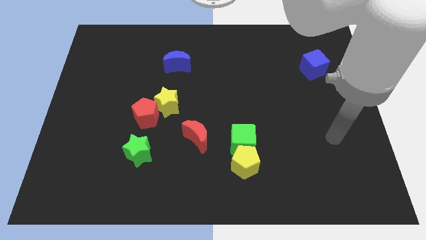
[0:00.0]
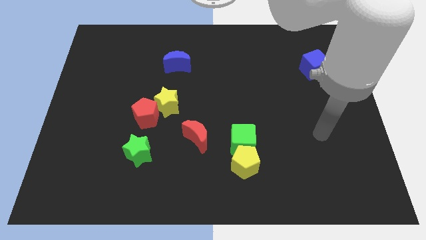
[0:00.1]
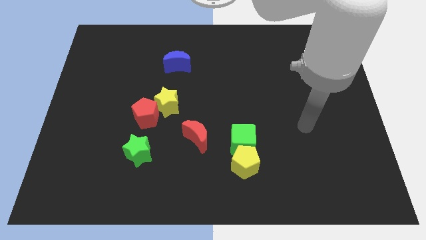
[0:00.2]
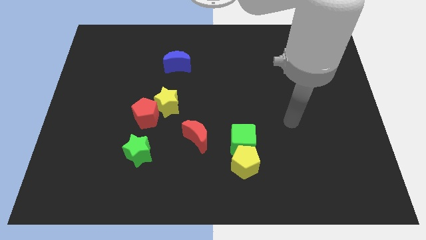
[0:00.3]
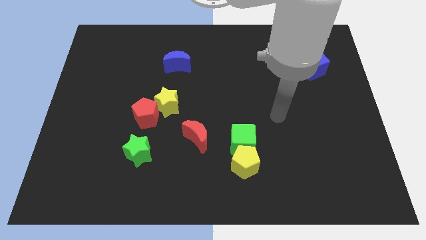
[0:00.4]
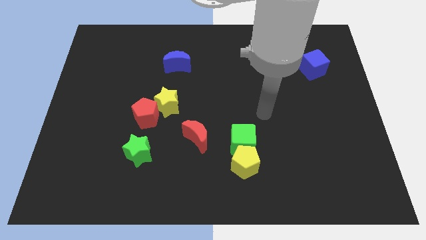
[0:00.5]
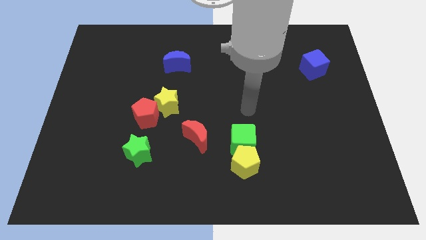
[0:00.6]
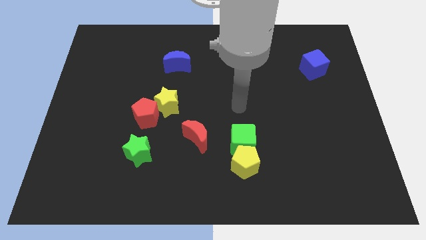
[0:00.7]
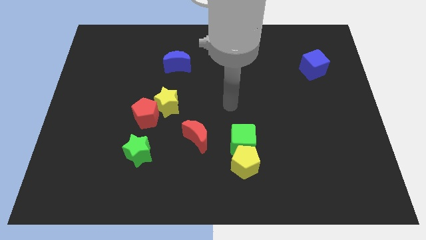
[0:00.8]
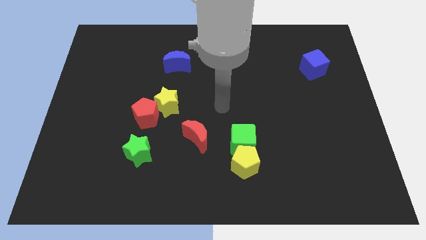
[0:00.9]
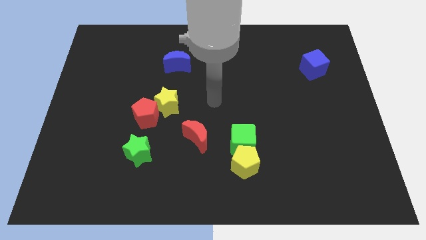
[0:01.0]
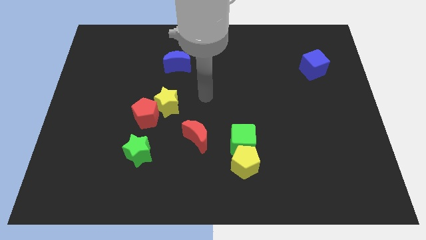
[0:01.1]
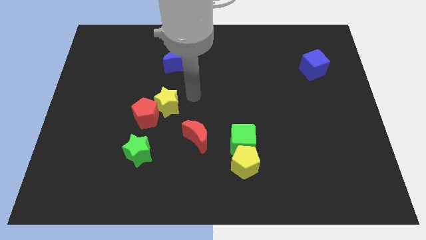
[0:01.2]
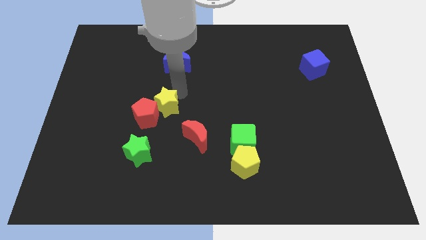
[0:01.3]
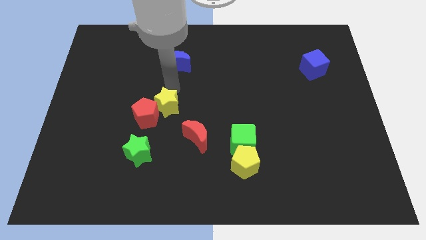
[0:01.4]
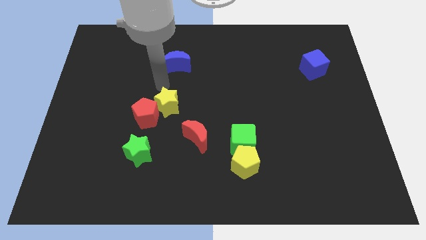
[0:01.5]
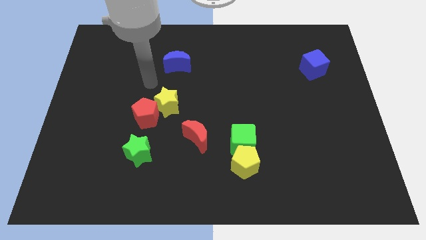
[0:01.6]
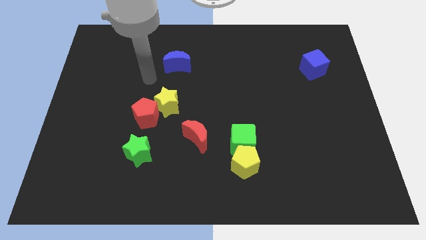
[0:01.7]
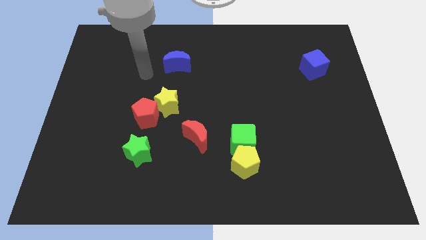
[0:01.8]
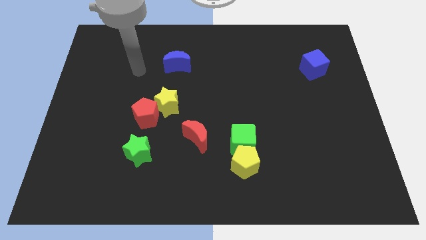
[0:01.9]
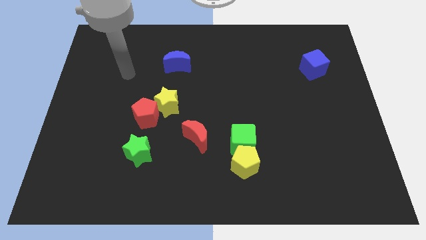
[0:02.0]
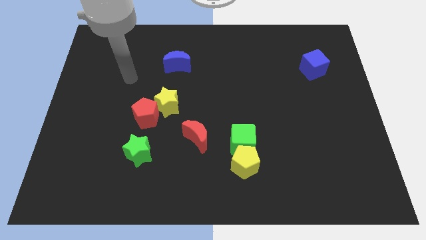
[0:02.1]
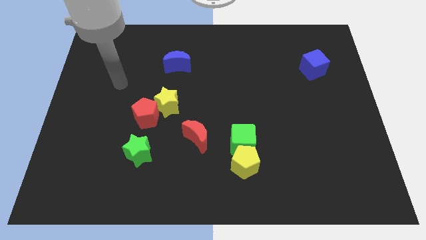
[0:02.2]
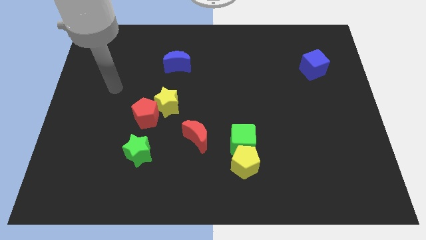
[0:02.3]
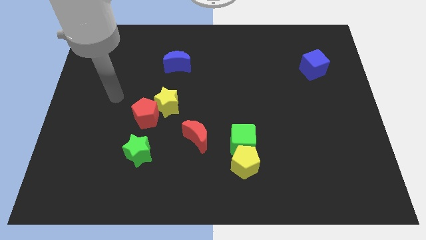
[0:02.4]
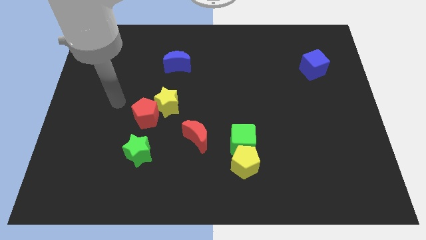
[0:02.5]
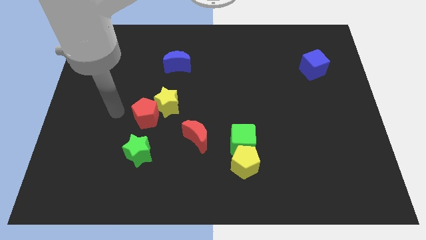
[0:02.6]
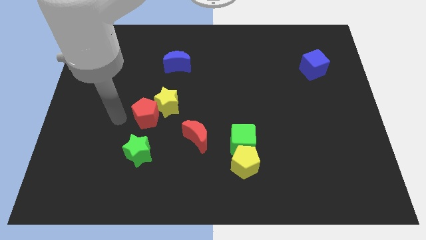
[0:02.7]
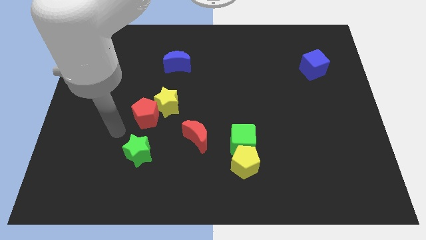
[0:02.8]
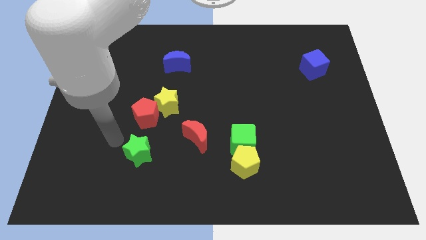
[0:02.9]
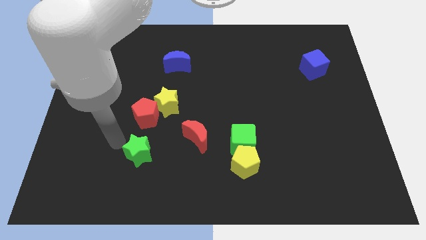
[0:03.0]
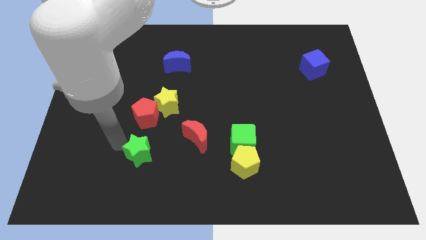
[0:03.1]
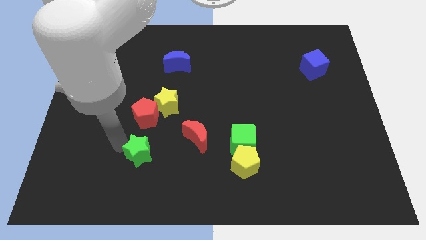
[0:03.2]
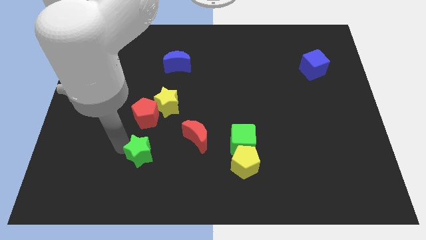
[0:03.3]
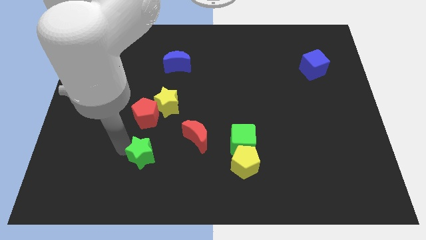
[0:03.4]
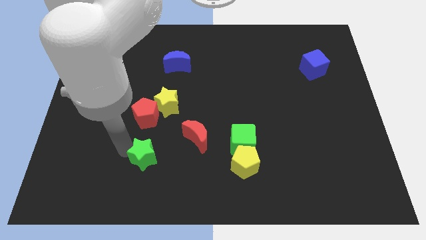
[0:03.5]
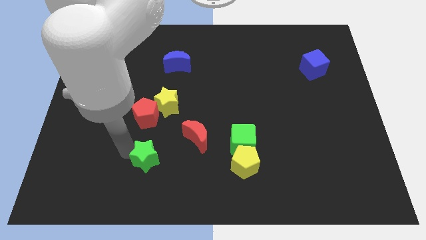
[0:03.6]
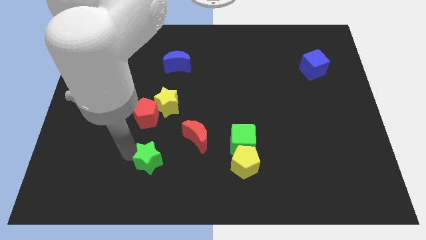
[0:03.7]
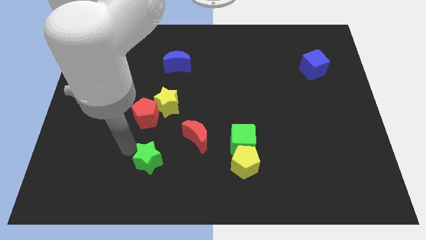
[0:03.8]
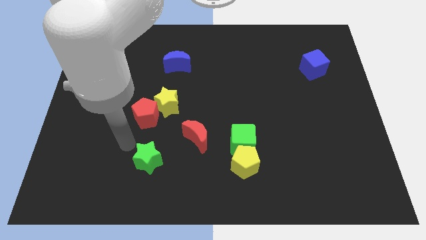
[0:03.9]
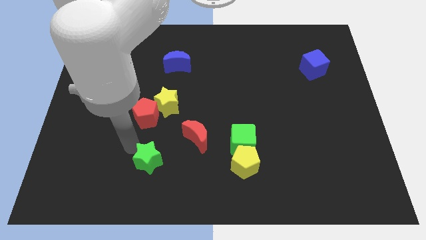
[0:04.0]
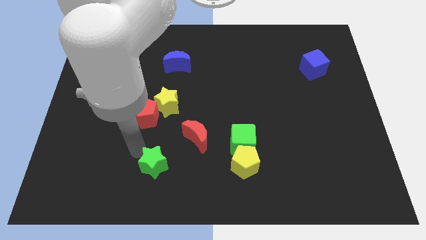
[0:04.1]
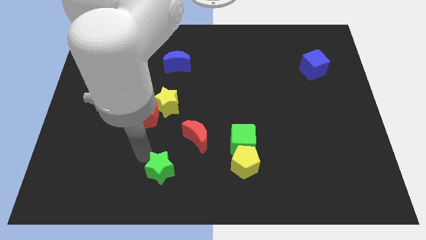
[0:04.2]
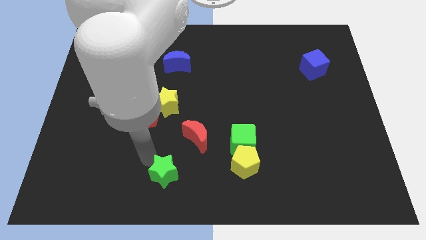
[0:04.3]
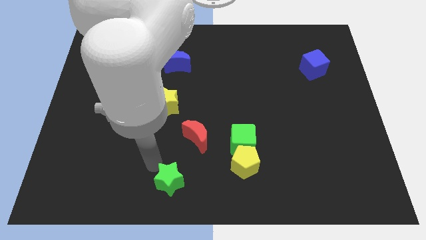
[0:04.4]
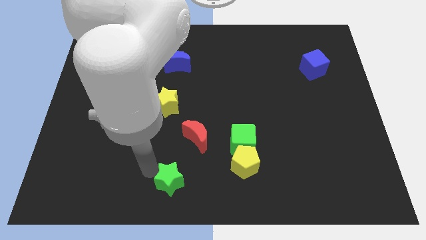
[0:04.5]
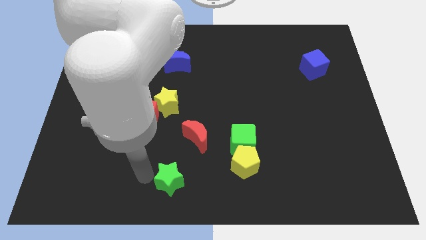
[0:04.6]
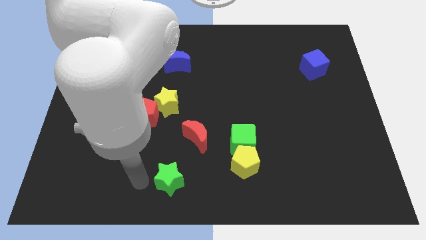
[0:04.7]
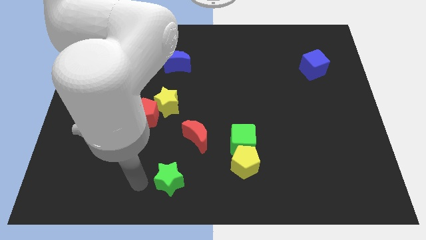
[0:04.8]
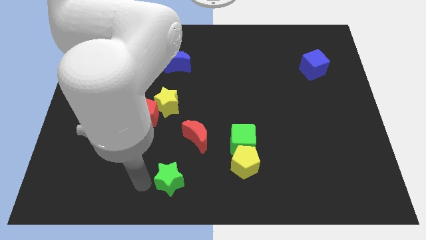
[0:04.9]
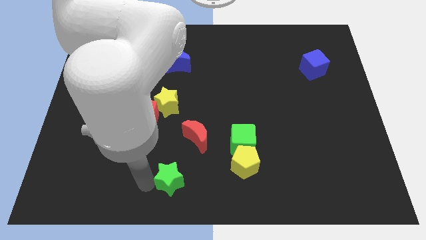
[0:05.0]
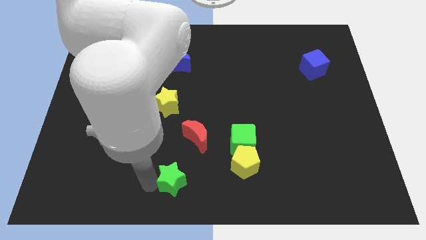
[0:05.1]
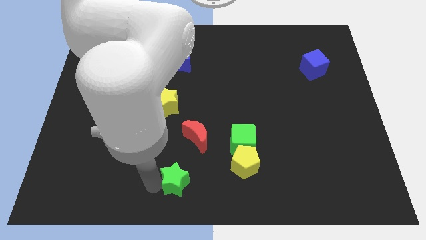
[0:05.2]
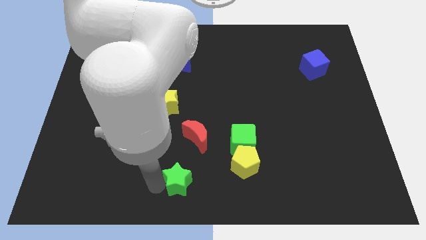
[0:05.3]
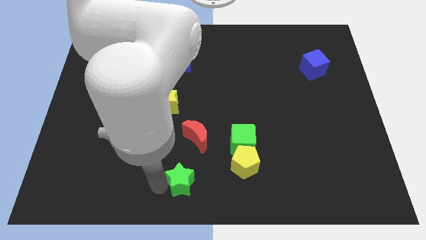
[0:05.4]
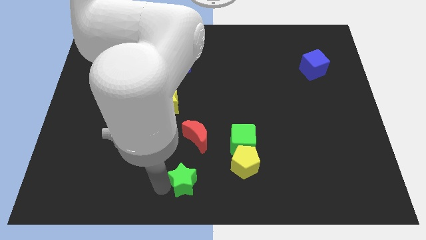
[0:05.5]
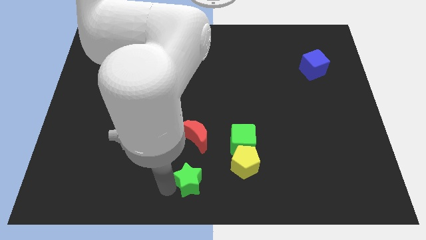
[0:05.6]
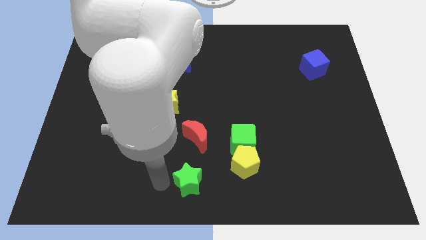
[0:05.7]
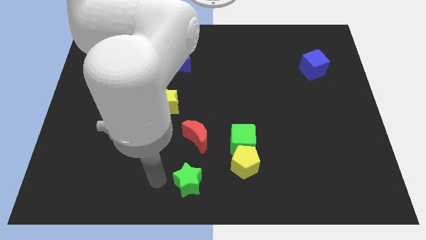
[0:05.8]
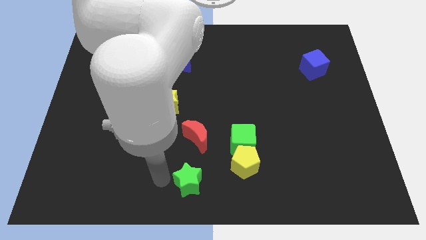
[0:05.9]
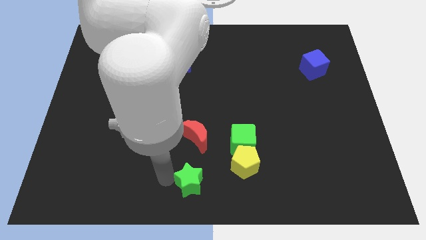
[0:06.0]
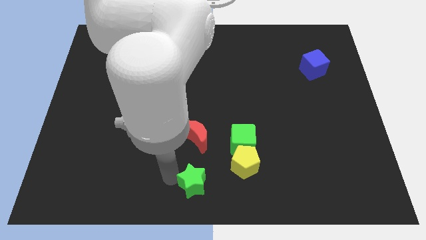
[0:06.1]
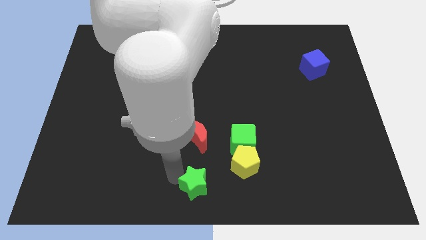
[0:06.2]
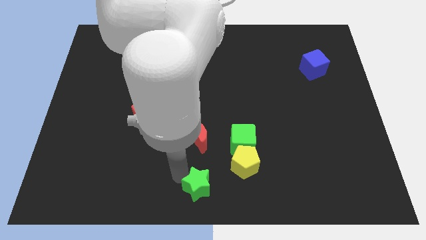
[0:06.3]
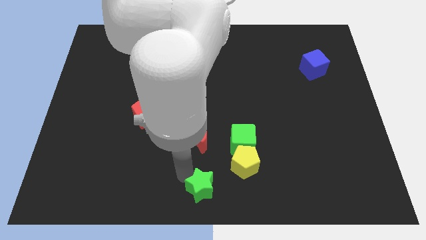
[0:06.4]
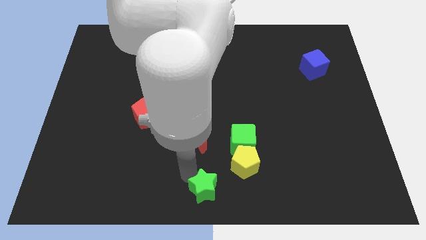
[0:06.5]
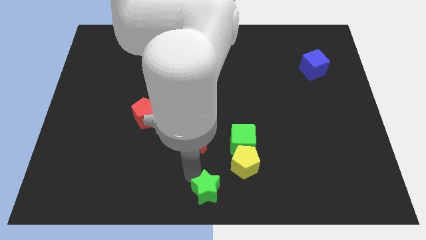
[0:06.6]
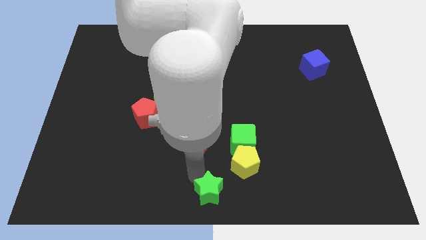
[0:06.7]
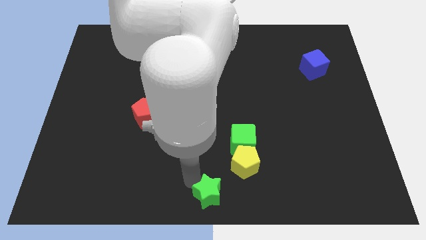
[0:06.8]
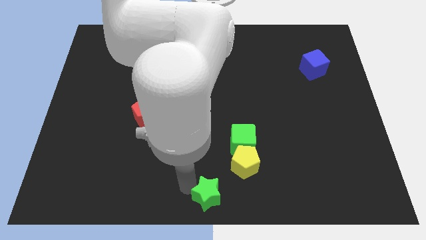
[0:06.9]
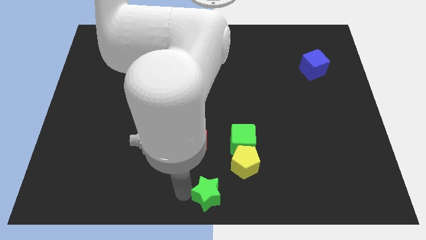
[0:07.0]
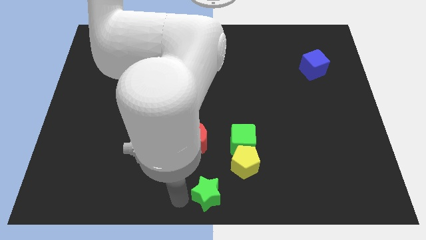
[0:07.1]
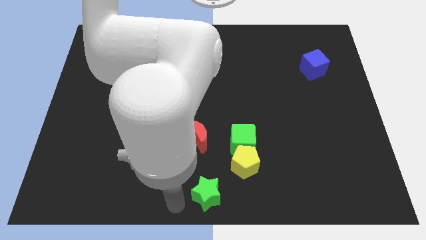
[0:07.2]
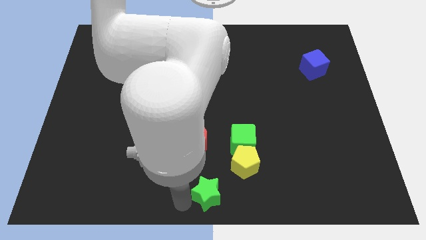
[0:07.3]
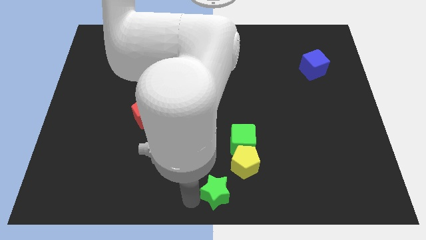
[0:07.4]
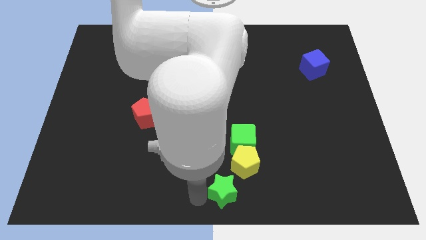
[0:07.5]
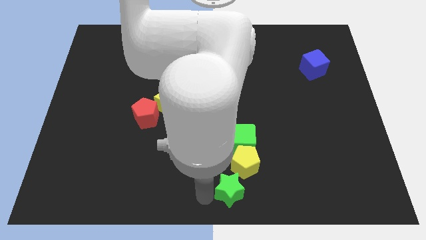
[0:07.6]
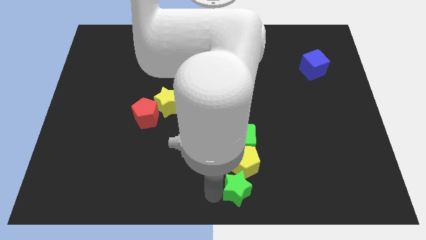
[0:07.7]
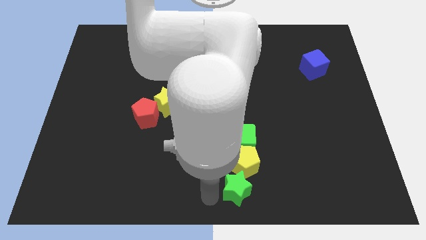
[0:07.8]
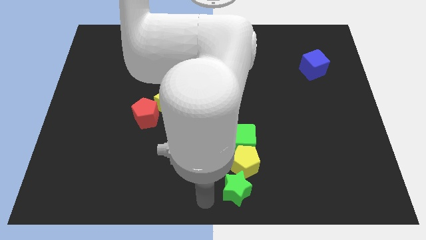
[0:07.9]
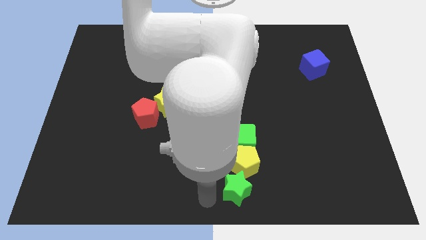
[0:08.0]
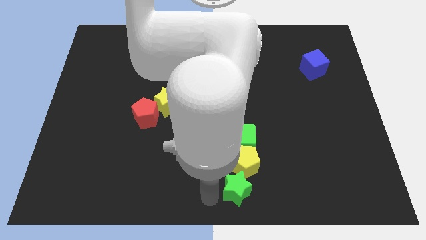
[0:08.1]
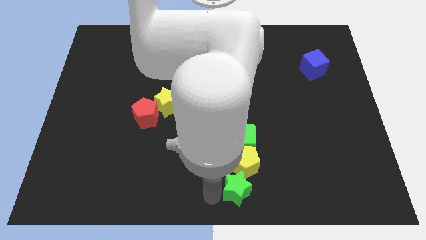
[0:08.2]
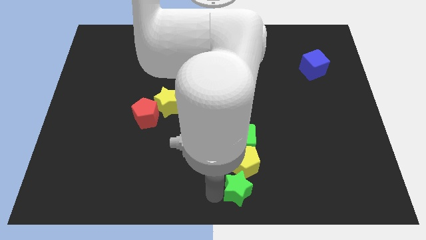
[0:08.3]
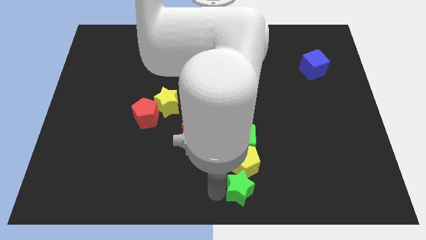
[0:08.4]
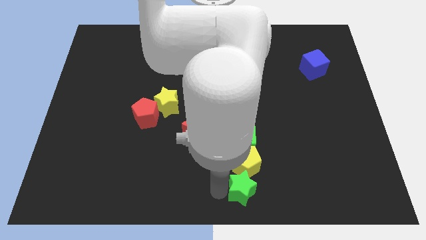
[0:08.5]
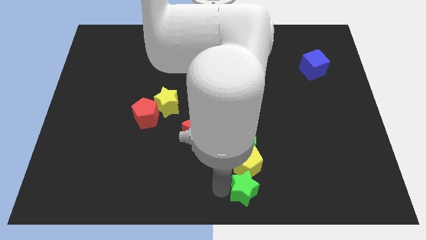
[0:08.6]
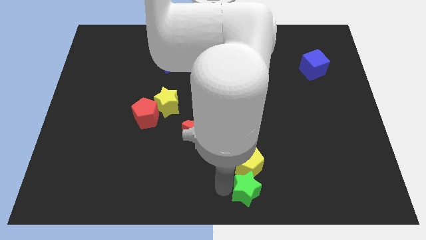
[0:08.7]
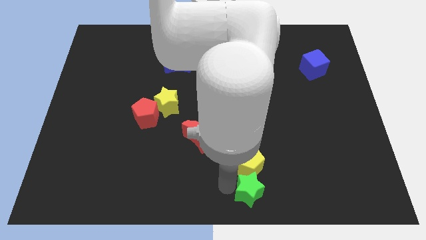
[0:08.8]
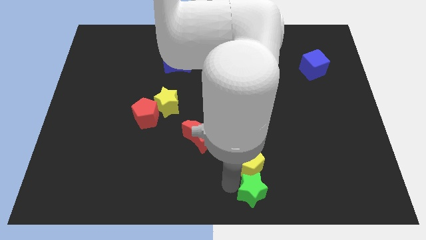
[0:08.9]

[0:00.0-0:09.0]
push the green star to the right
